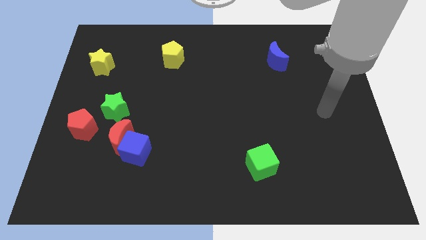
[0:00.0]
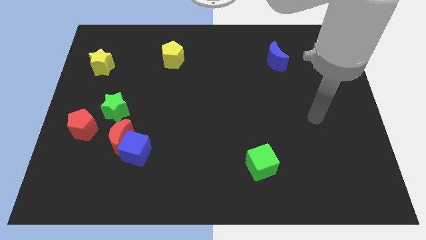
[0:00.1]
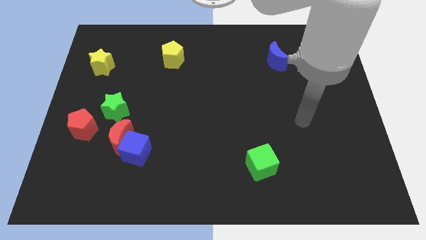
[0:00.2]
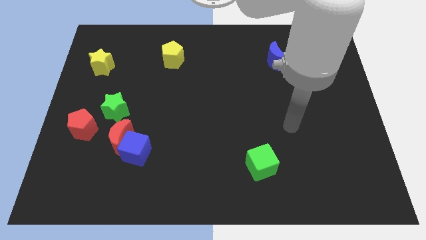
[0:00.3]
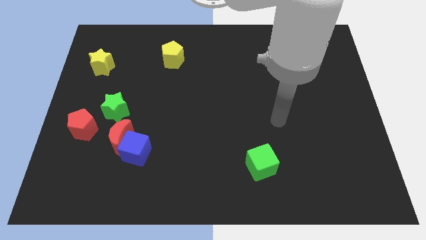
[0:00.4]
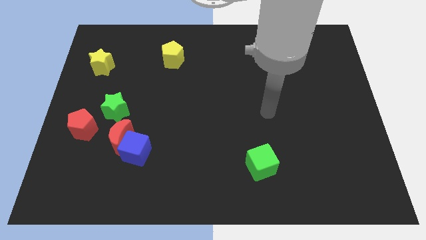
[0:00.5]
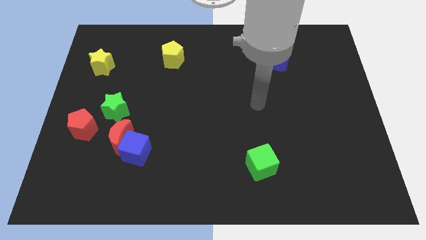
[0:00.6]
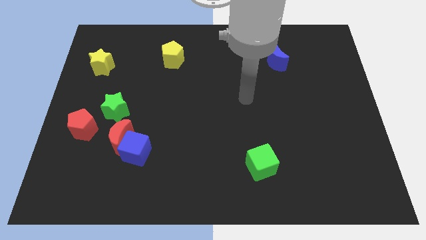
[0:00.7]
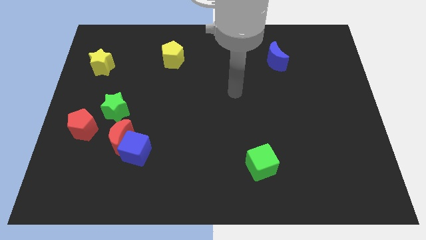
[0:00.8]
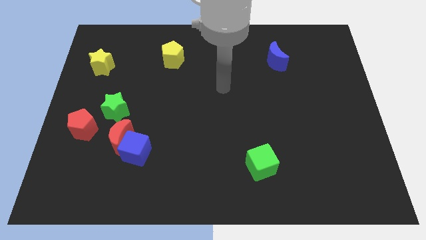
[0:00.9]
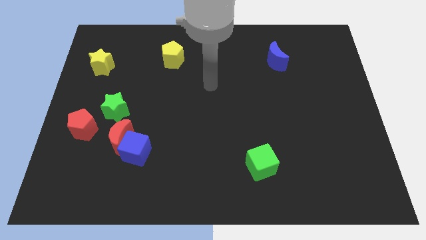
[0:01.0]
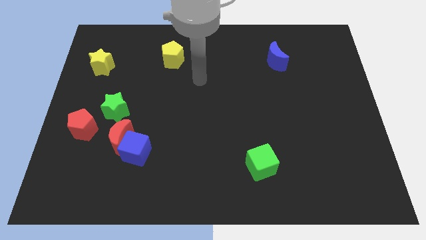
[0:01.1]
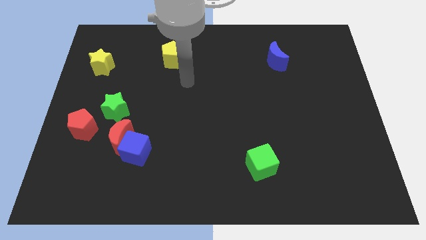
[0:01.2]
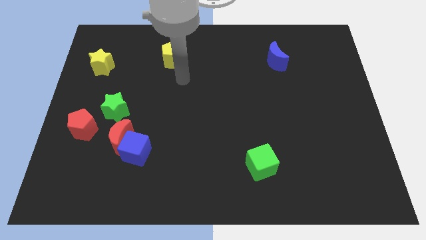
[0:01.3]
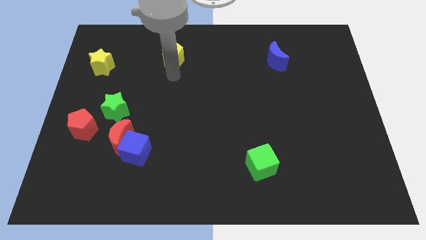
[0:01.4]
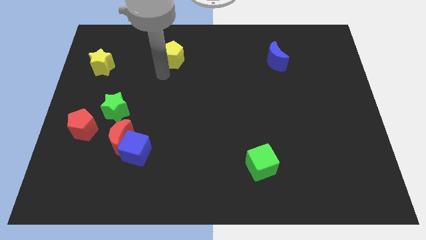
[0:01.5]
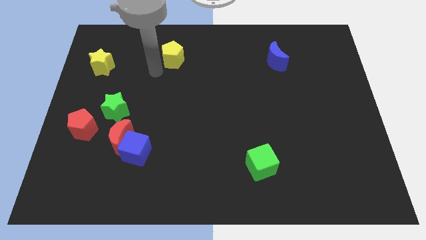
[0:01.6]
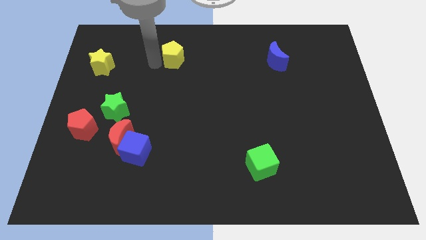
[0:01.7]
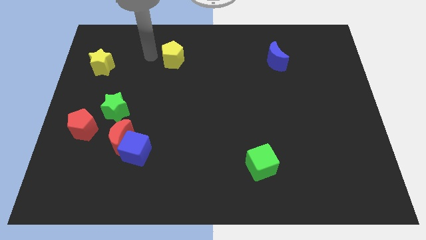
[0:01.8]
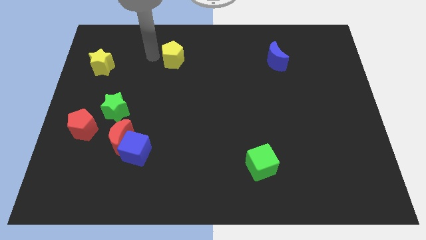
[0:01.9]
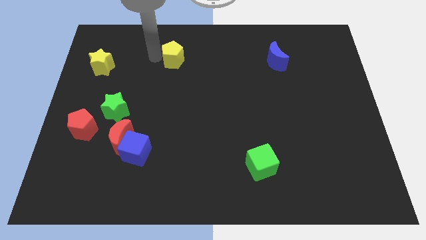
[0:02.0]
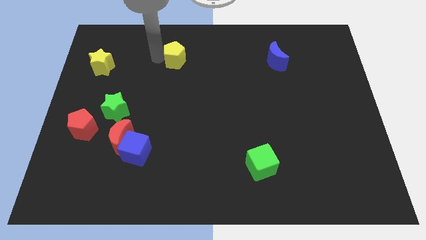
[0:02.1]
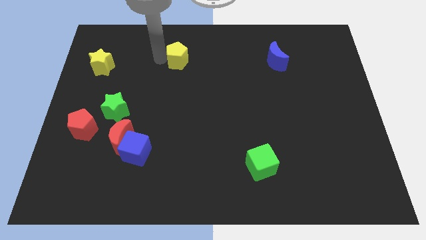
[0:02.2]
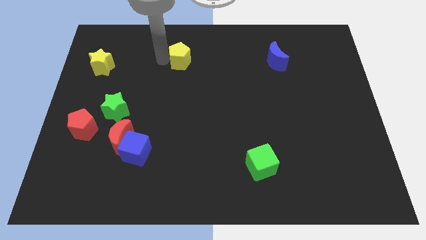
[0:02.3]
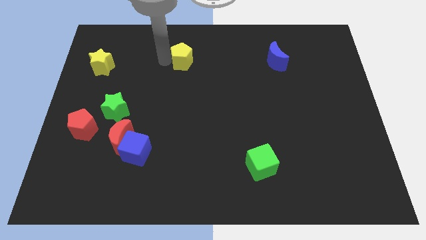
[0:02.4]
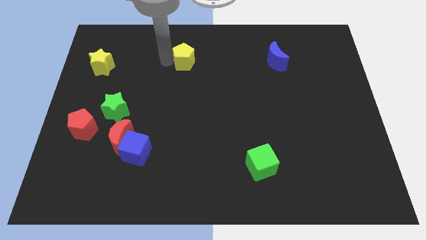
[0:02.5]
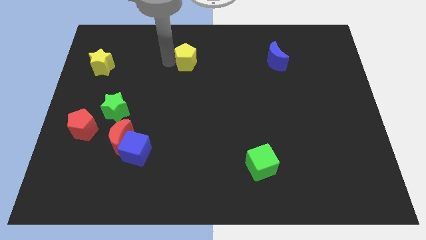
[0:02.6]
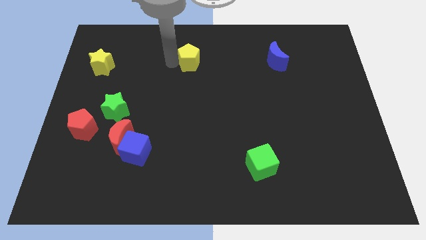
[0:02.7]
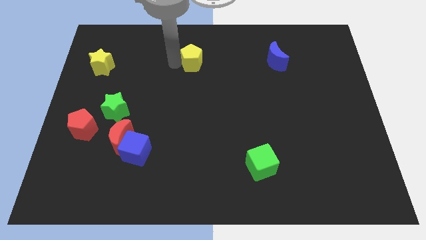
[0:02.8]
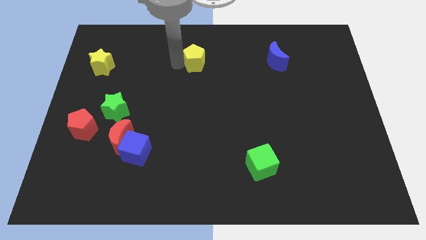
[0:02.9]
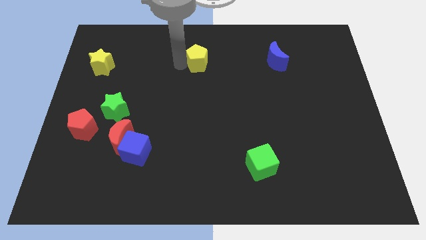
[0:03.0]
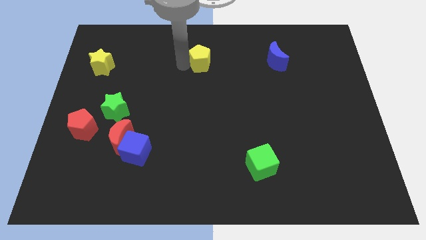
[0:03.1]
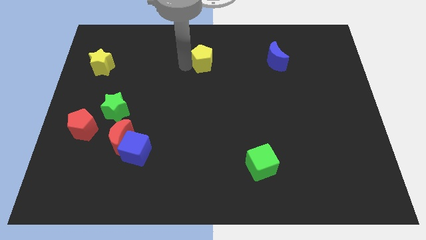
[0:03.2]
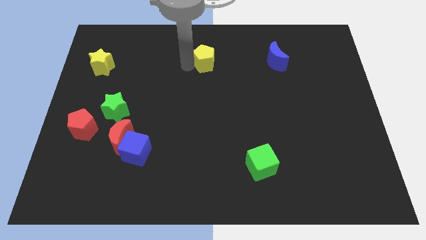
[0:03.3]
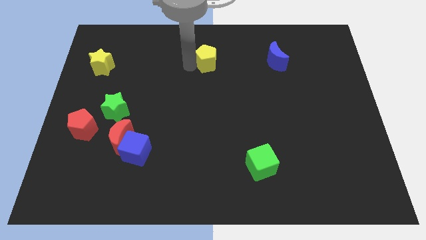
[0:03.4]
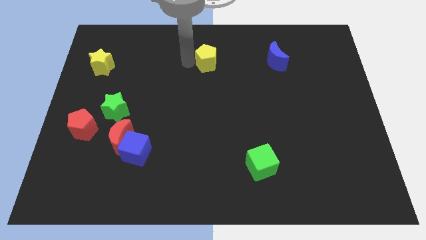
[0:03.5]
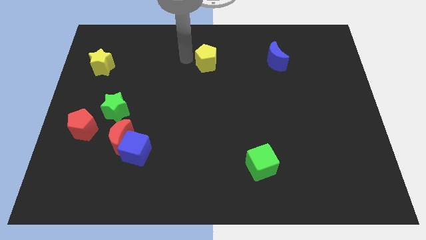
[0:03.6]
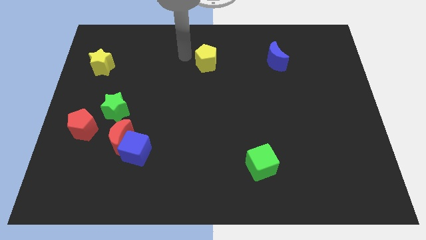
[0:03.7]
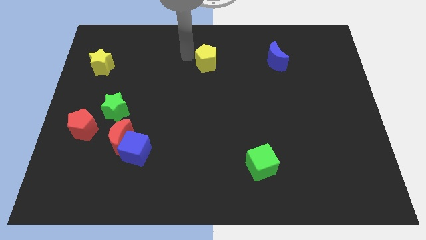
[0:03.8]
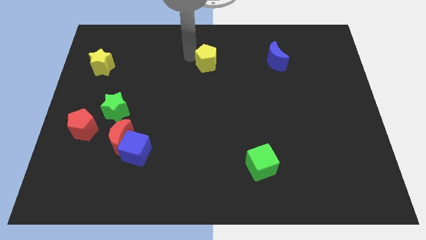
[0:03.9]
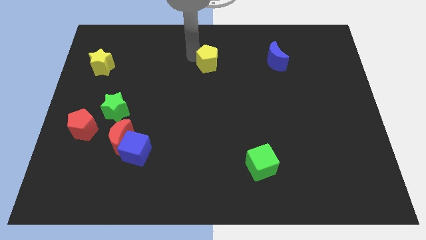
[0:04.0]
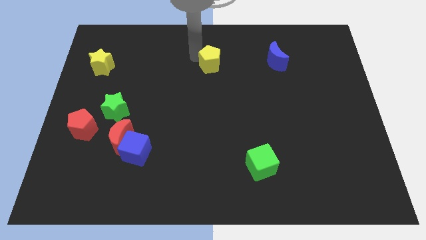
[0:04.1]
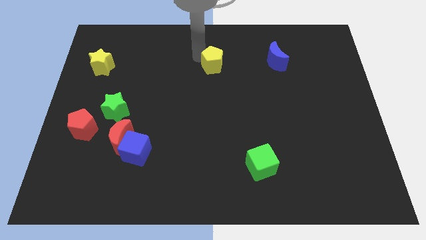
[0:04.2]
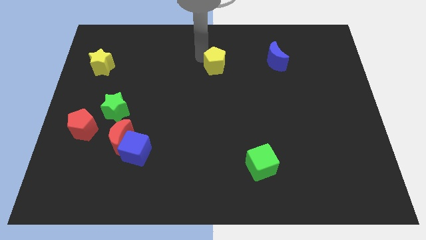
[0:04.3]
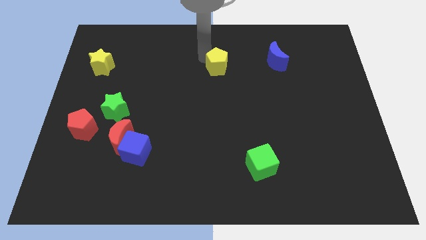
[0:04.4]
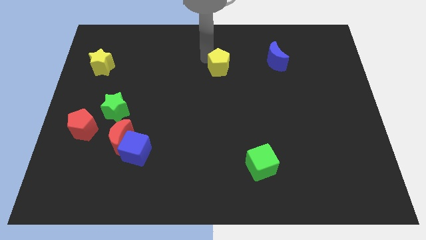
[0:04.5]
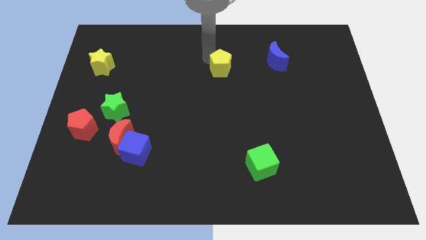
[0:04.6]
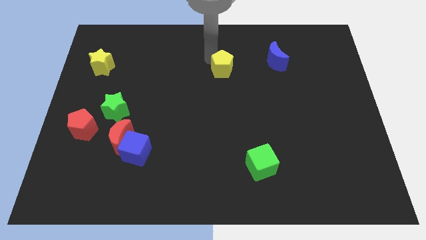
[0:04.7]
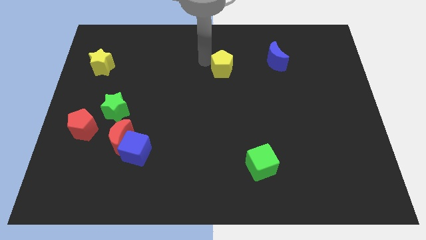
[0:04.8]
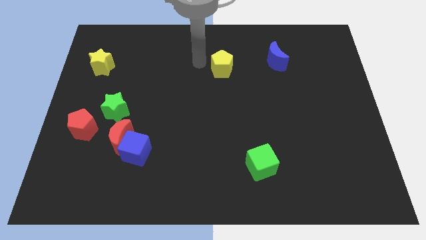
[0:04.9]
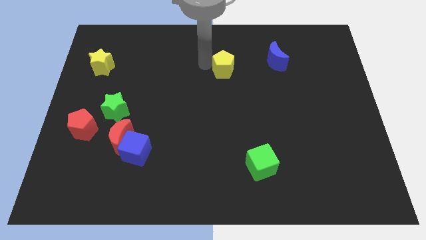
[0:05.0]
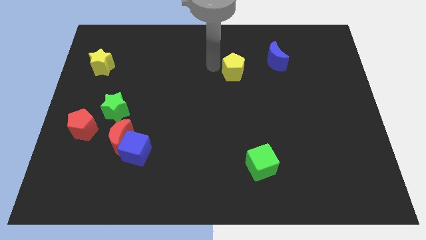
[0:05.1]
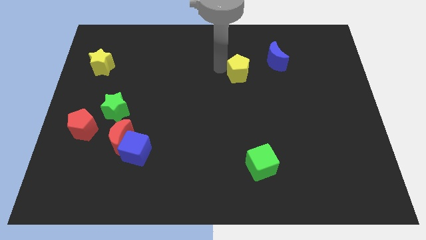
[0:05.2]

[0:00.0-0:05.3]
put the yellow pentagon to the bottom left side of the blue moon

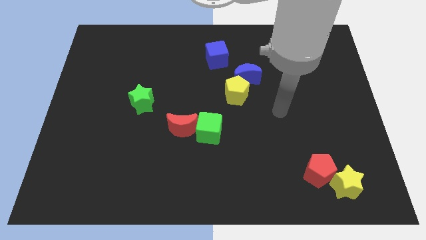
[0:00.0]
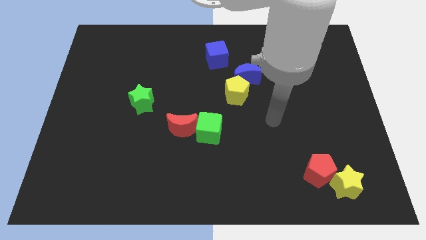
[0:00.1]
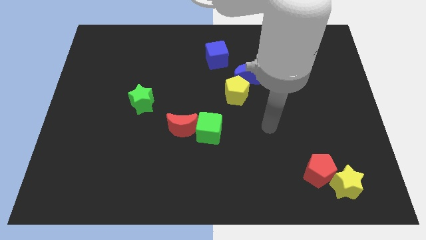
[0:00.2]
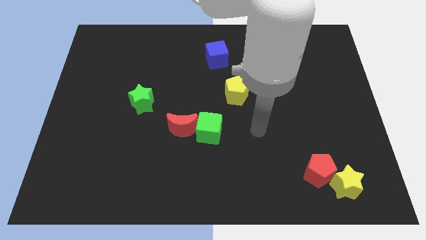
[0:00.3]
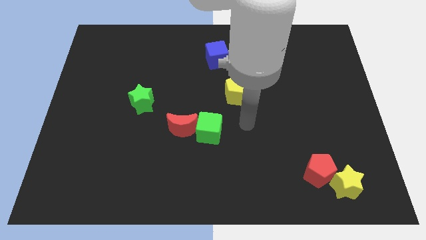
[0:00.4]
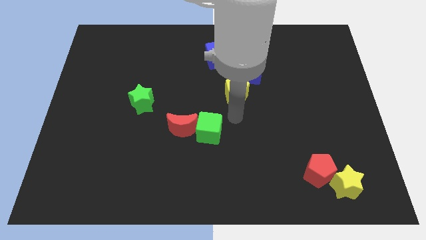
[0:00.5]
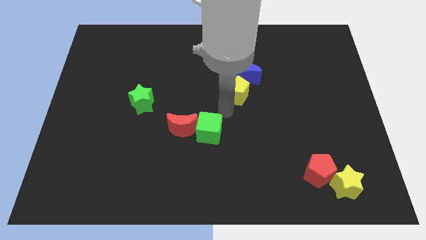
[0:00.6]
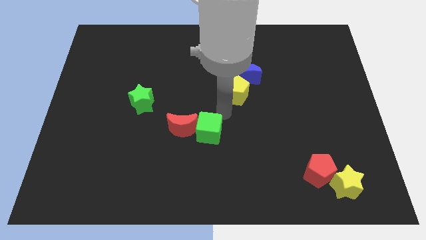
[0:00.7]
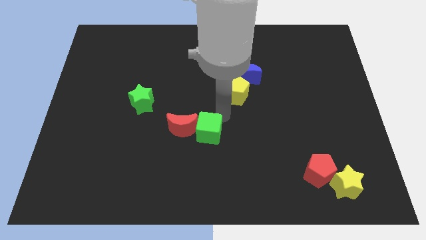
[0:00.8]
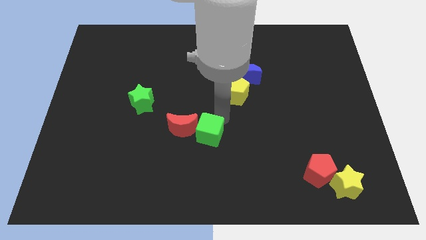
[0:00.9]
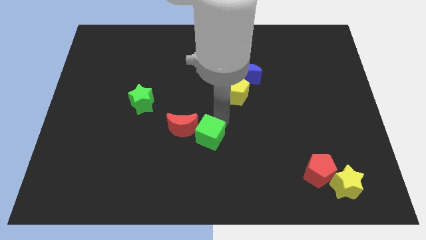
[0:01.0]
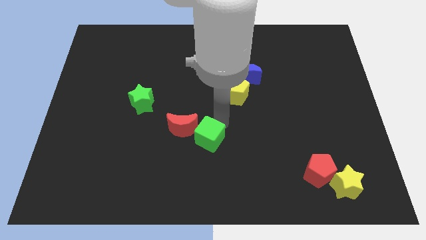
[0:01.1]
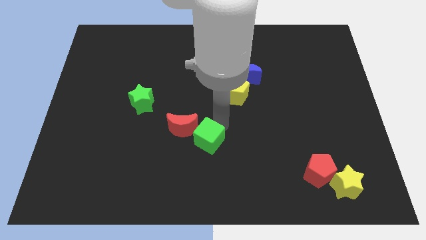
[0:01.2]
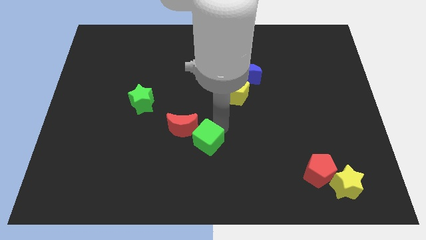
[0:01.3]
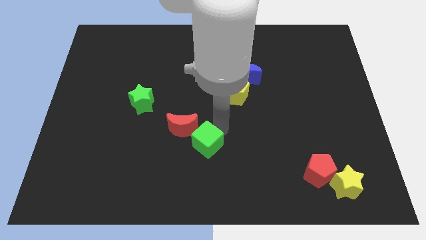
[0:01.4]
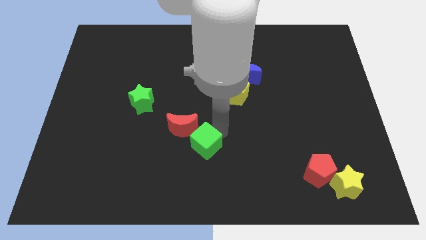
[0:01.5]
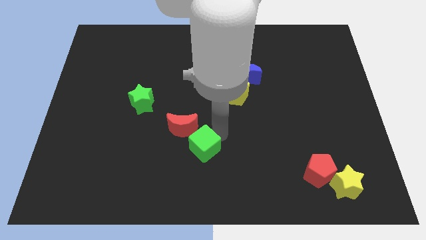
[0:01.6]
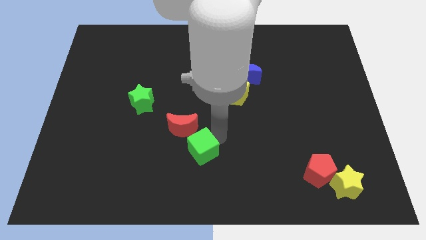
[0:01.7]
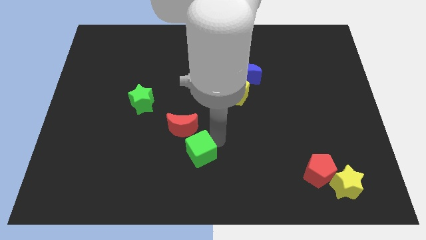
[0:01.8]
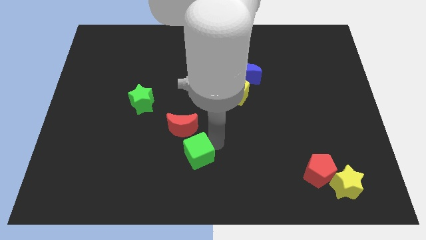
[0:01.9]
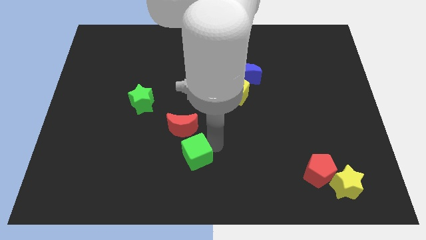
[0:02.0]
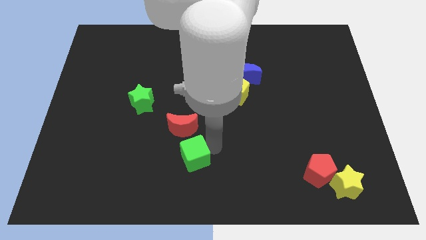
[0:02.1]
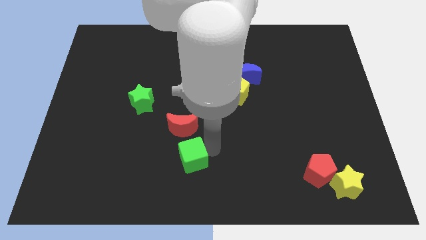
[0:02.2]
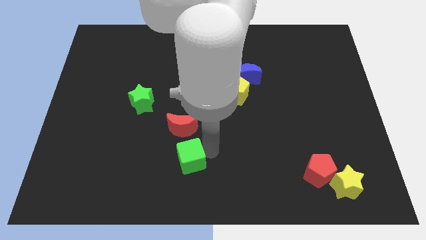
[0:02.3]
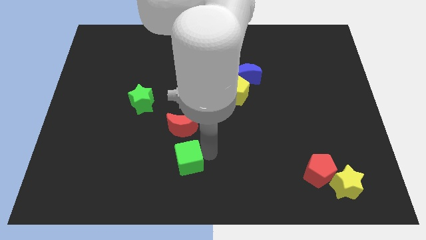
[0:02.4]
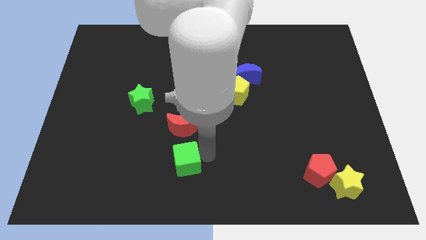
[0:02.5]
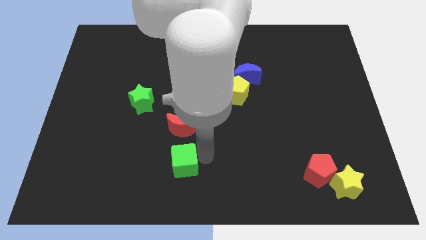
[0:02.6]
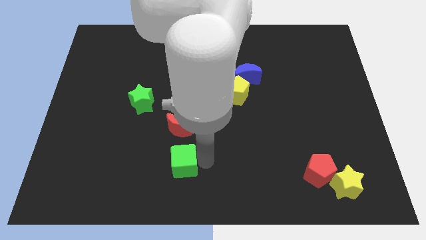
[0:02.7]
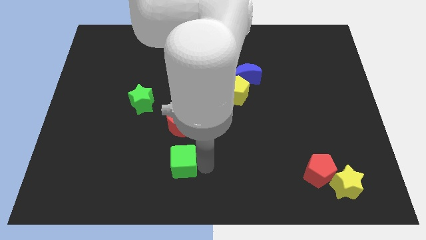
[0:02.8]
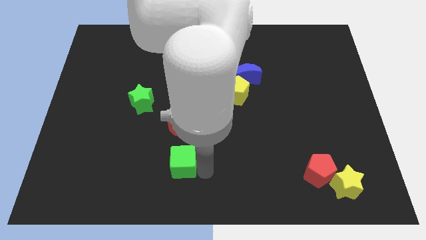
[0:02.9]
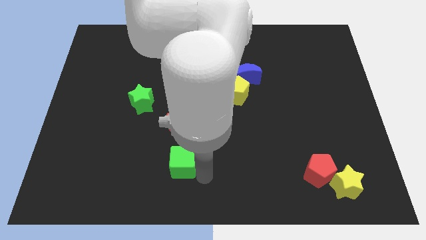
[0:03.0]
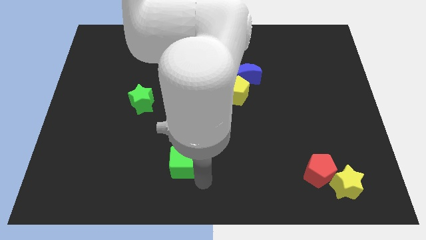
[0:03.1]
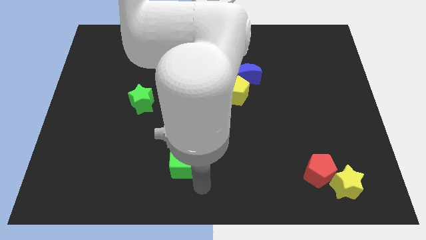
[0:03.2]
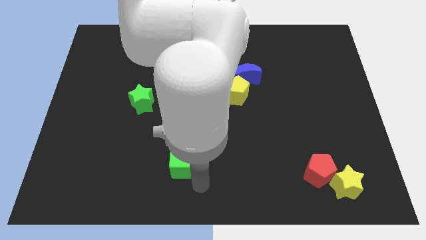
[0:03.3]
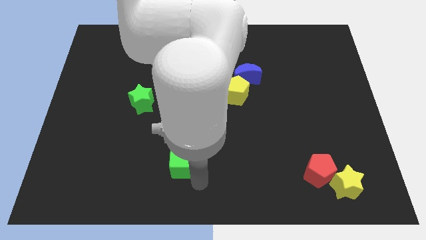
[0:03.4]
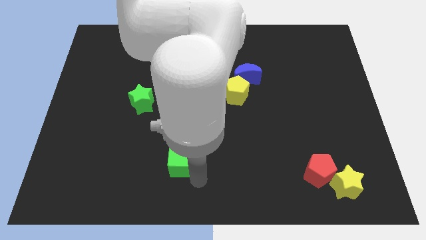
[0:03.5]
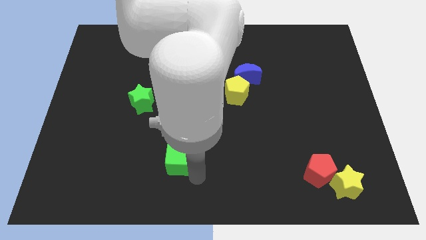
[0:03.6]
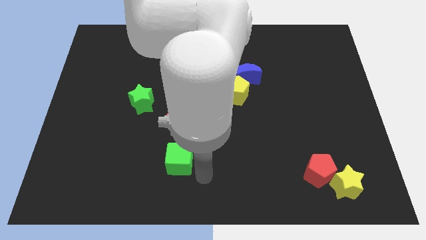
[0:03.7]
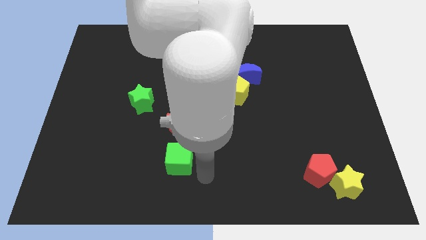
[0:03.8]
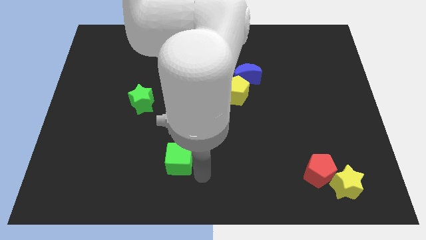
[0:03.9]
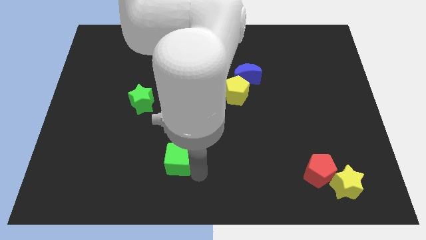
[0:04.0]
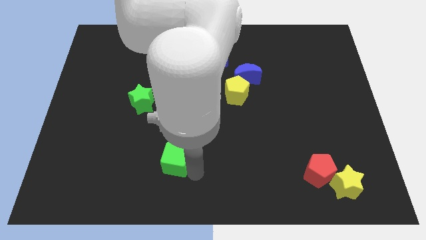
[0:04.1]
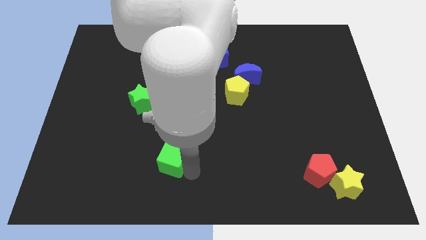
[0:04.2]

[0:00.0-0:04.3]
move the green cube diagonally down and to the left of the red moon
